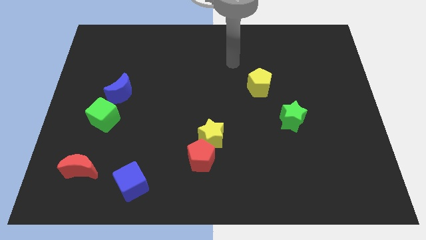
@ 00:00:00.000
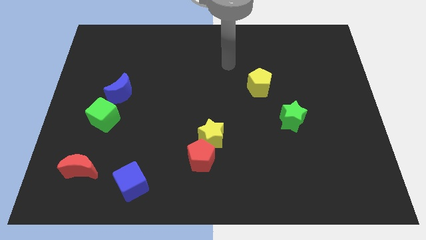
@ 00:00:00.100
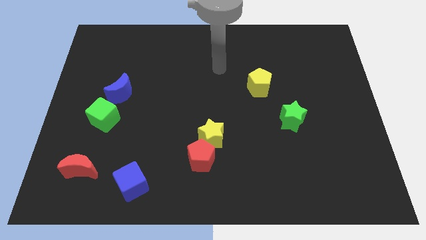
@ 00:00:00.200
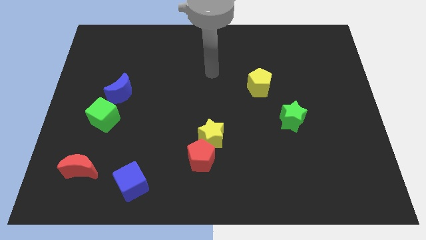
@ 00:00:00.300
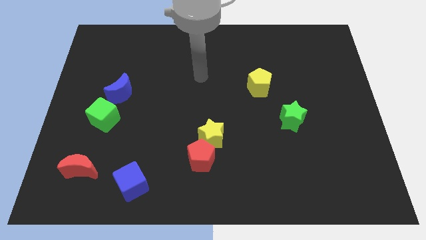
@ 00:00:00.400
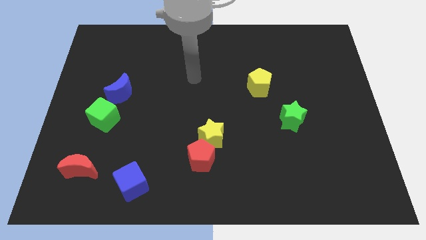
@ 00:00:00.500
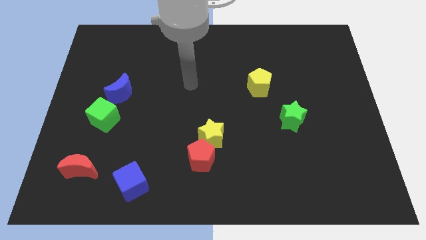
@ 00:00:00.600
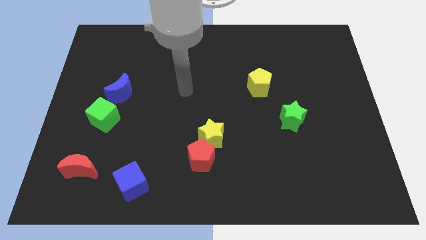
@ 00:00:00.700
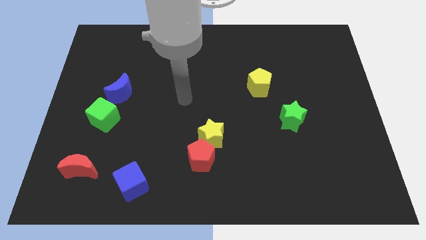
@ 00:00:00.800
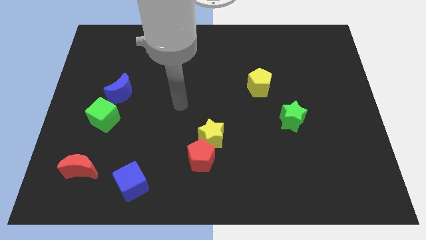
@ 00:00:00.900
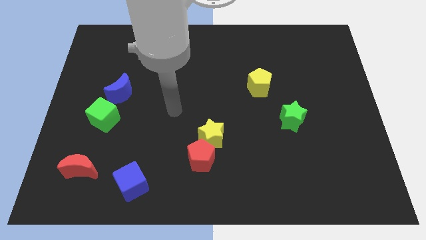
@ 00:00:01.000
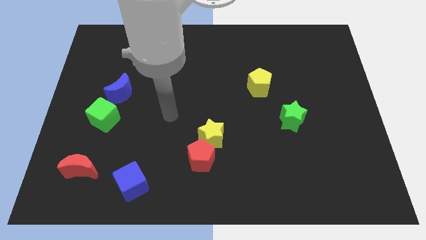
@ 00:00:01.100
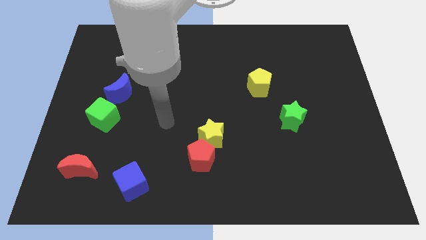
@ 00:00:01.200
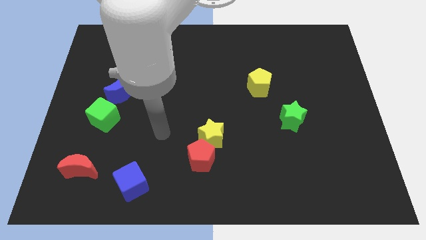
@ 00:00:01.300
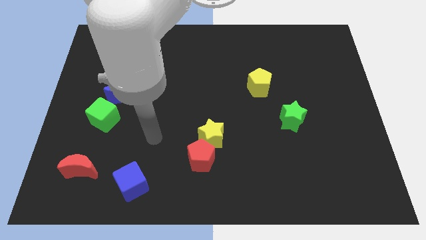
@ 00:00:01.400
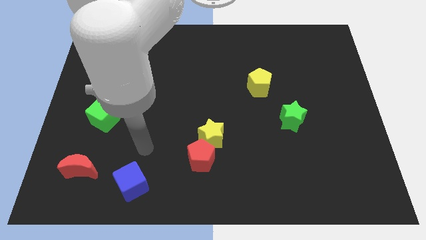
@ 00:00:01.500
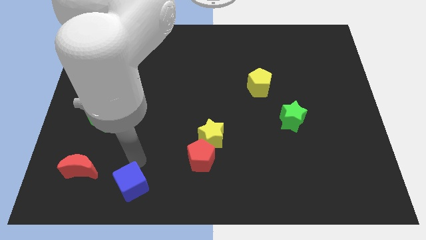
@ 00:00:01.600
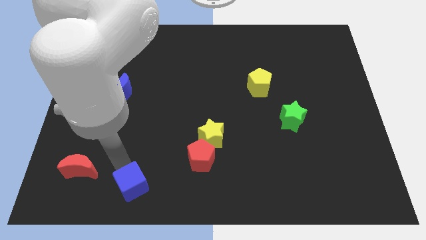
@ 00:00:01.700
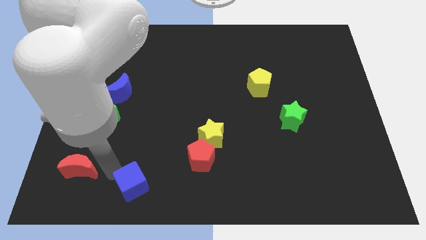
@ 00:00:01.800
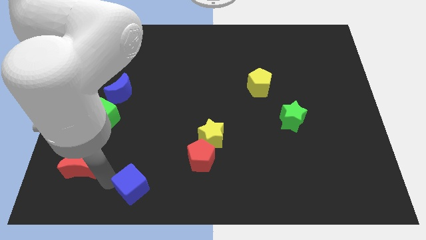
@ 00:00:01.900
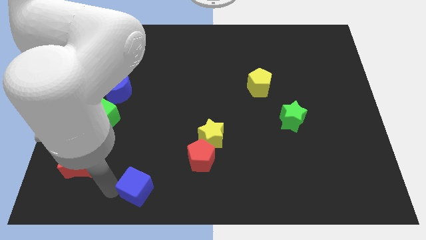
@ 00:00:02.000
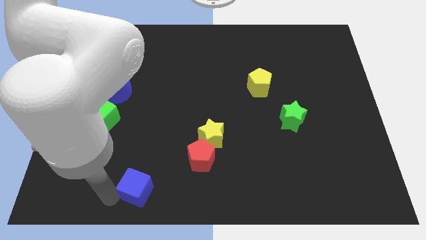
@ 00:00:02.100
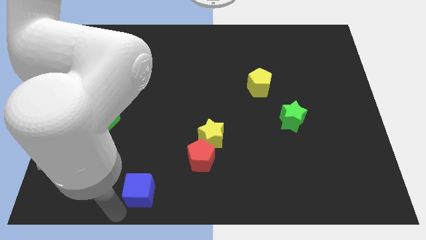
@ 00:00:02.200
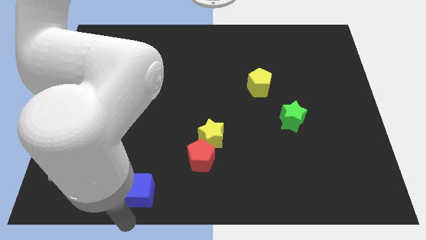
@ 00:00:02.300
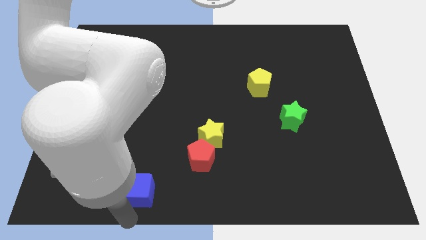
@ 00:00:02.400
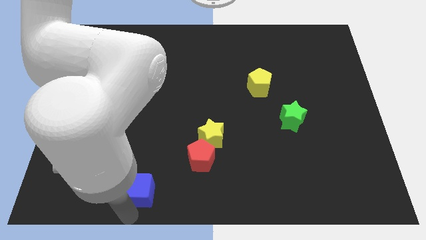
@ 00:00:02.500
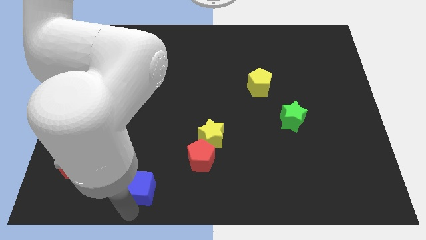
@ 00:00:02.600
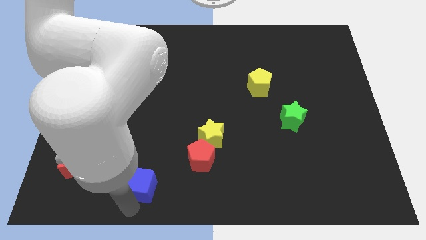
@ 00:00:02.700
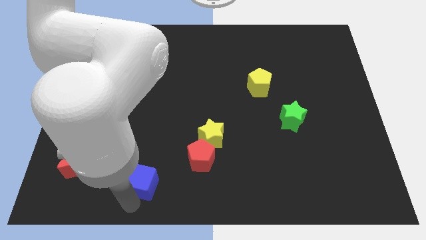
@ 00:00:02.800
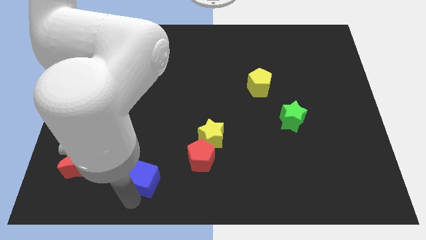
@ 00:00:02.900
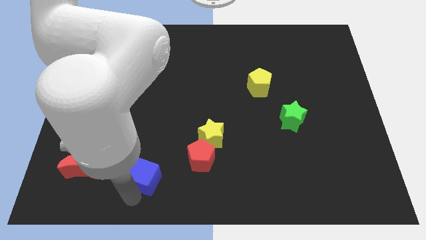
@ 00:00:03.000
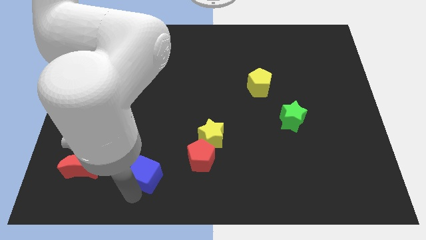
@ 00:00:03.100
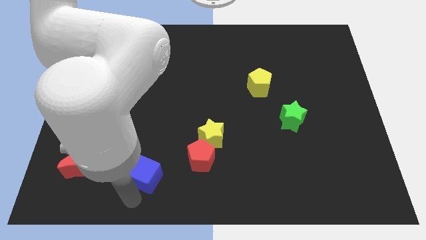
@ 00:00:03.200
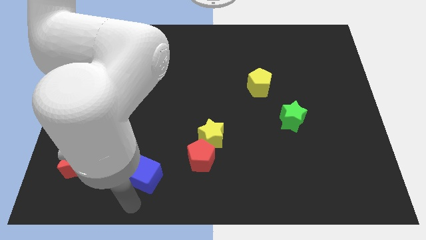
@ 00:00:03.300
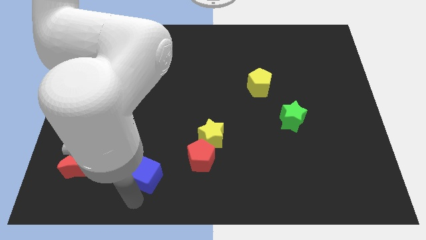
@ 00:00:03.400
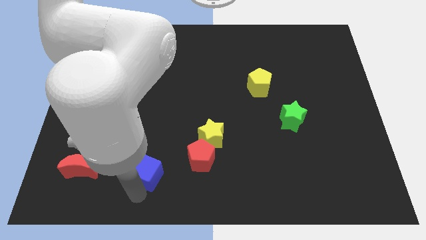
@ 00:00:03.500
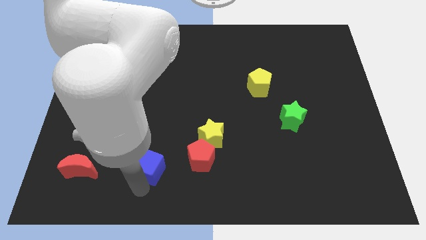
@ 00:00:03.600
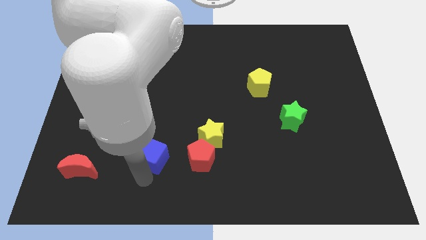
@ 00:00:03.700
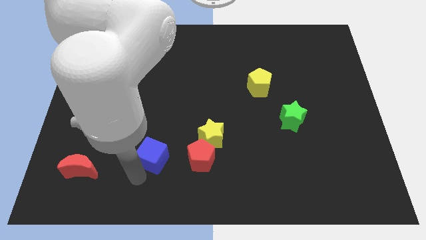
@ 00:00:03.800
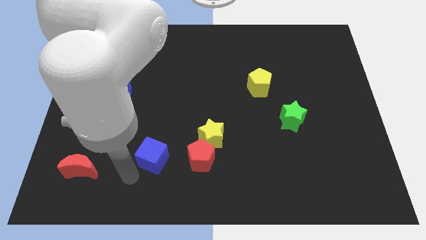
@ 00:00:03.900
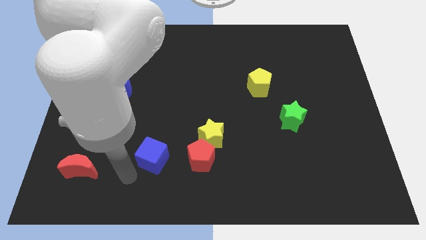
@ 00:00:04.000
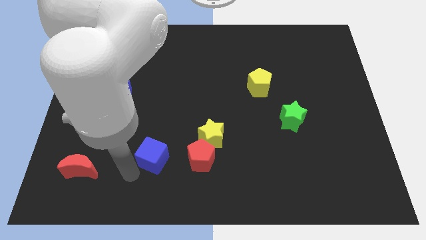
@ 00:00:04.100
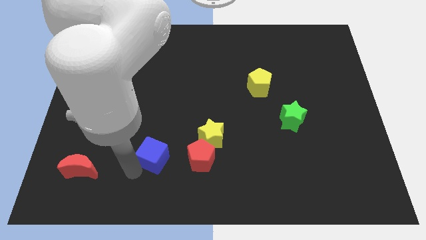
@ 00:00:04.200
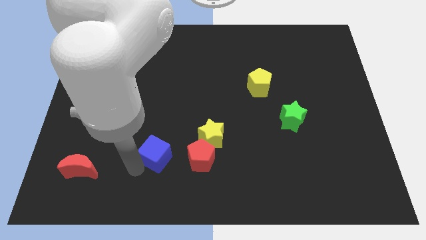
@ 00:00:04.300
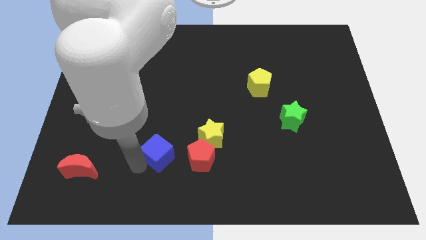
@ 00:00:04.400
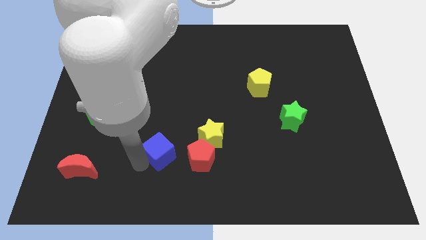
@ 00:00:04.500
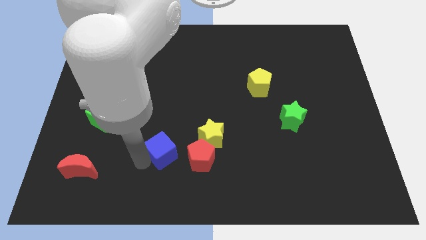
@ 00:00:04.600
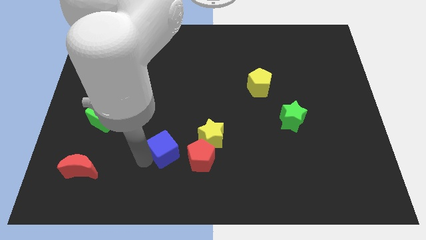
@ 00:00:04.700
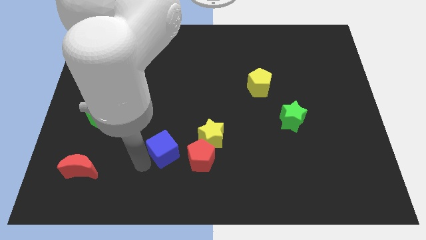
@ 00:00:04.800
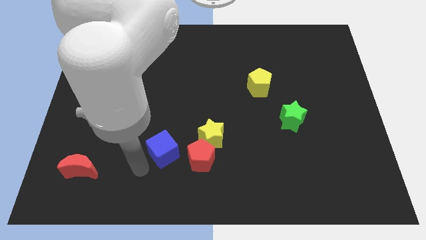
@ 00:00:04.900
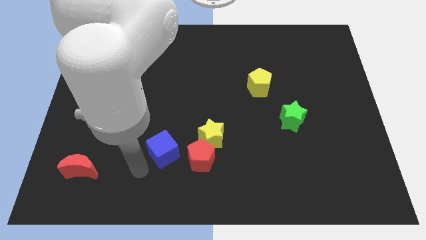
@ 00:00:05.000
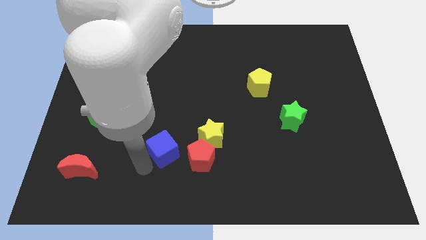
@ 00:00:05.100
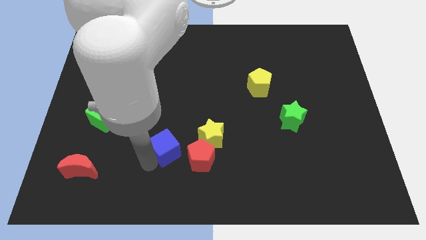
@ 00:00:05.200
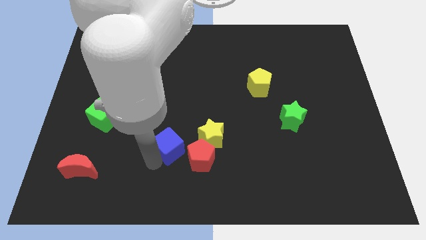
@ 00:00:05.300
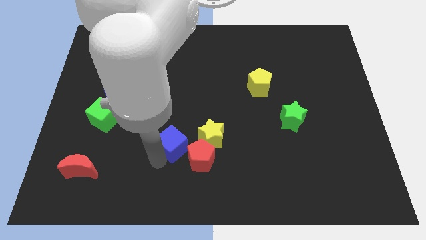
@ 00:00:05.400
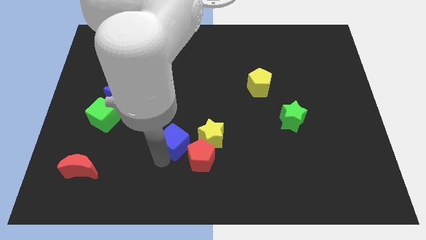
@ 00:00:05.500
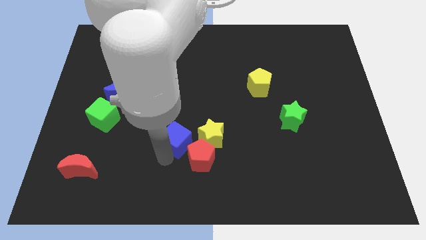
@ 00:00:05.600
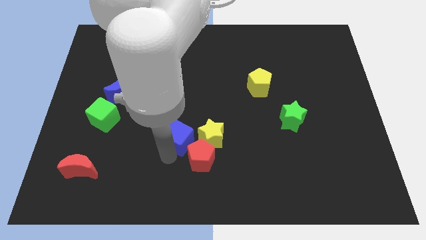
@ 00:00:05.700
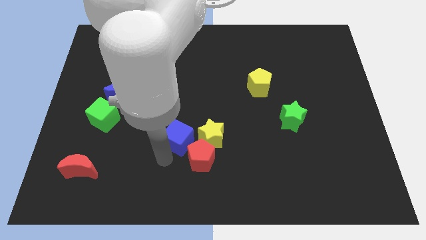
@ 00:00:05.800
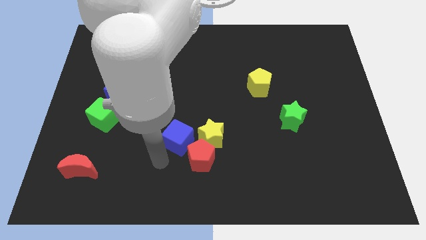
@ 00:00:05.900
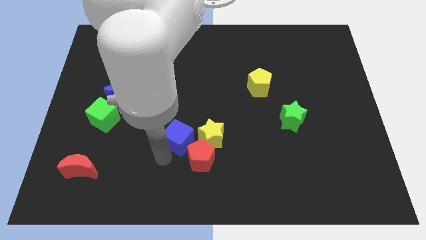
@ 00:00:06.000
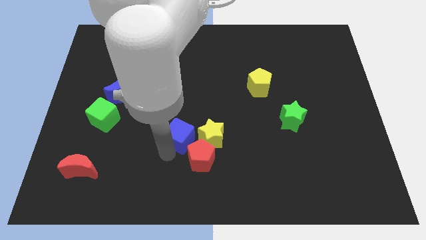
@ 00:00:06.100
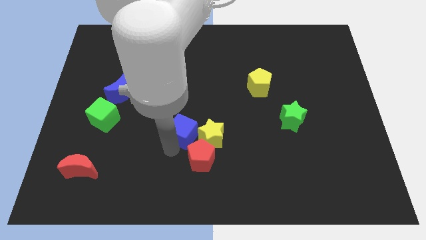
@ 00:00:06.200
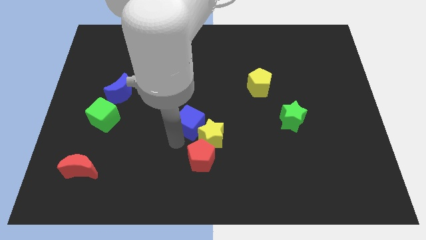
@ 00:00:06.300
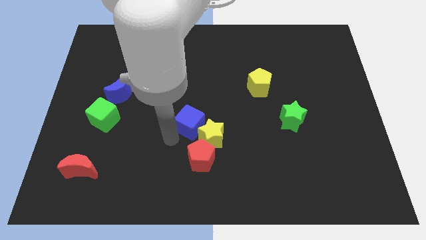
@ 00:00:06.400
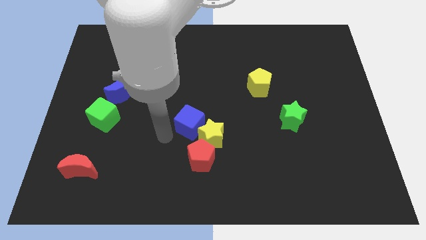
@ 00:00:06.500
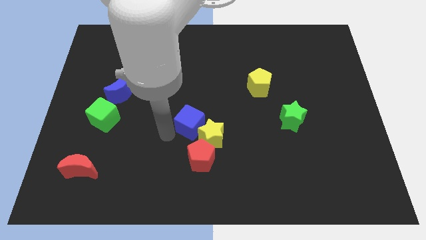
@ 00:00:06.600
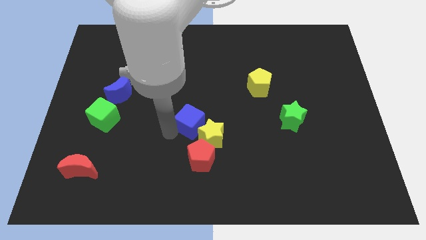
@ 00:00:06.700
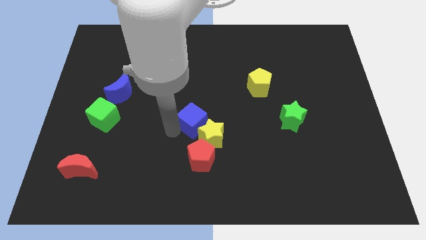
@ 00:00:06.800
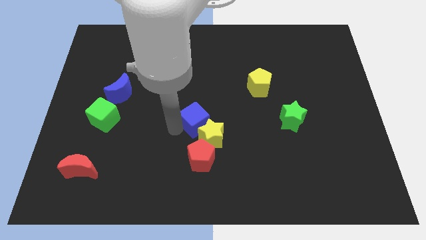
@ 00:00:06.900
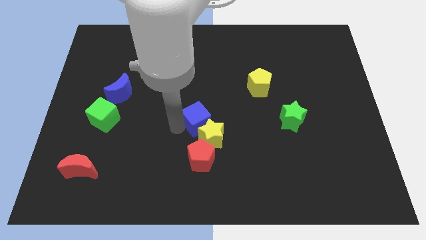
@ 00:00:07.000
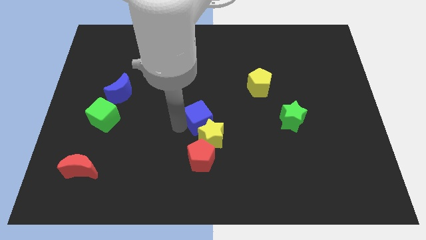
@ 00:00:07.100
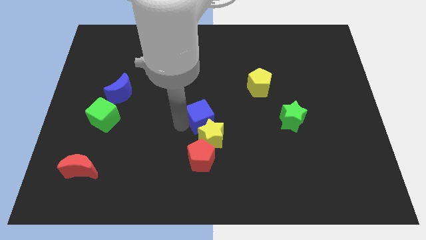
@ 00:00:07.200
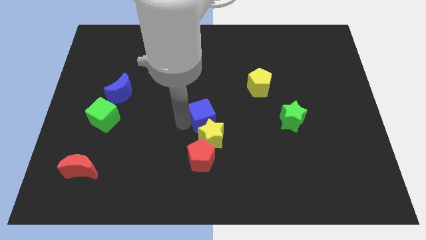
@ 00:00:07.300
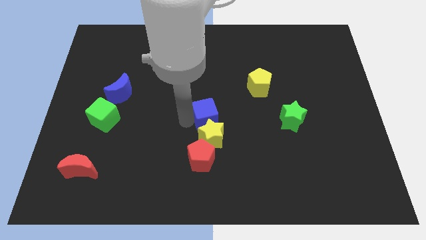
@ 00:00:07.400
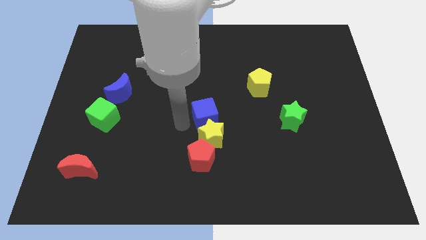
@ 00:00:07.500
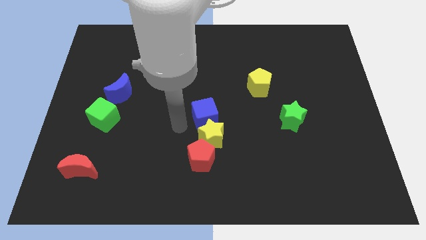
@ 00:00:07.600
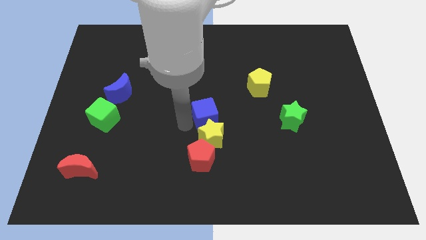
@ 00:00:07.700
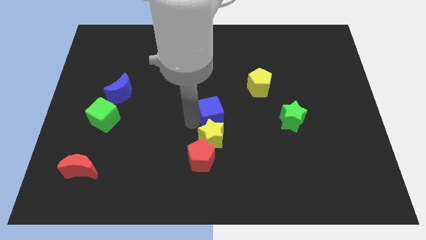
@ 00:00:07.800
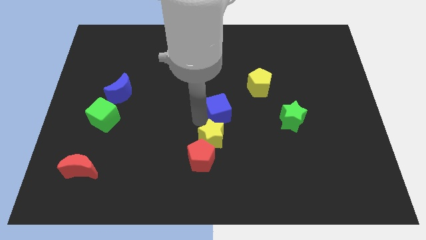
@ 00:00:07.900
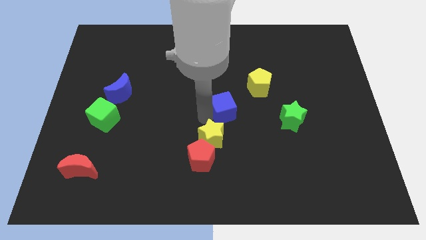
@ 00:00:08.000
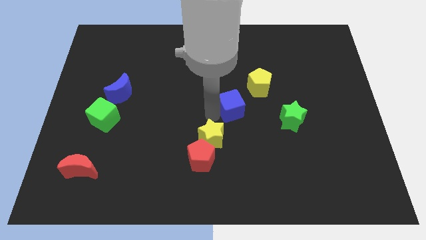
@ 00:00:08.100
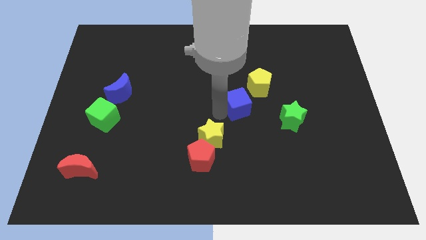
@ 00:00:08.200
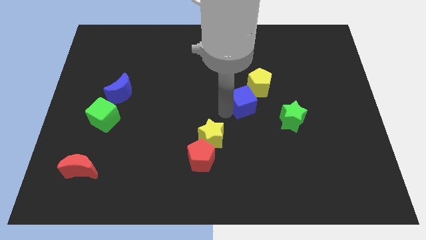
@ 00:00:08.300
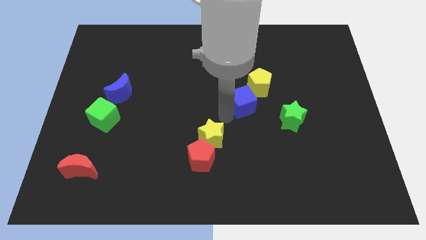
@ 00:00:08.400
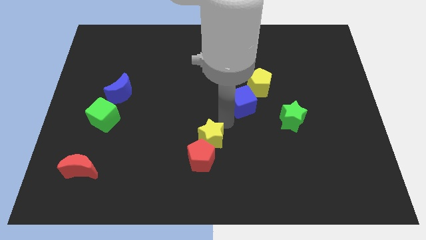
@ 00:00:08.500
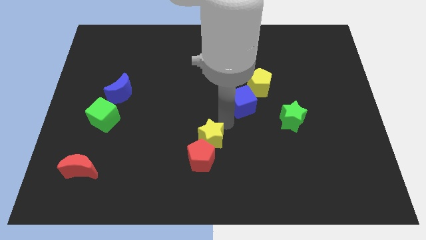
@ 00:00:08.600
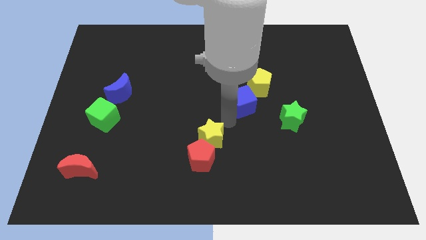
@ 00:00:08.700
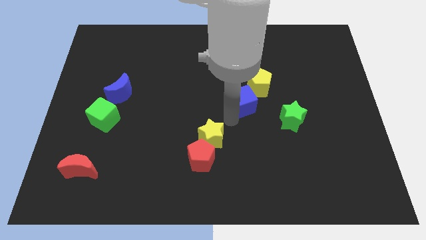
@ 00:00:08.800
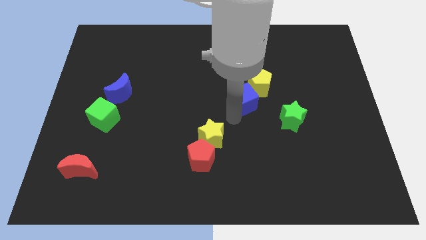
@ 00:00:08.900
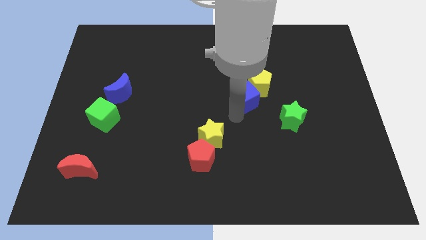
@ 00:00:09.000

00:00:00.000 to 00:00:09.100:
move the blue cube close to the yellow pentagon
